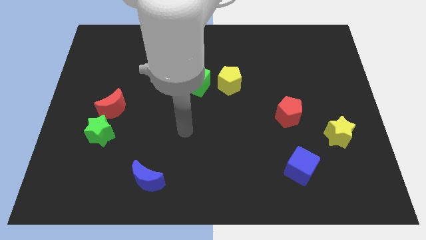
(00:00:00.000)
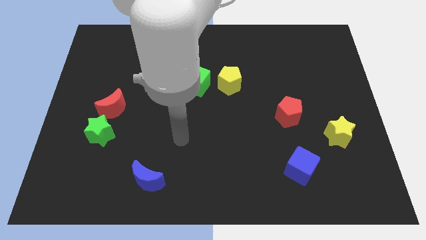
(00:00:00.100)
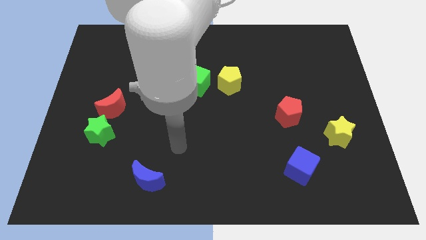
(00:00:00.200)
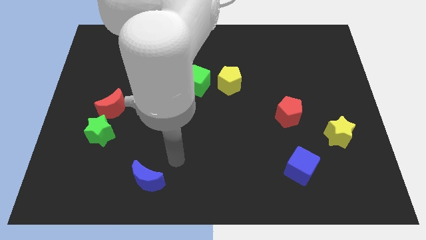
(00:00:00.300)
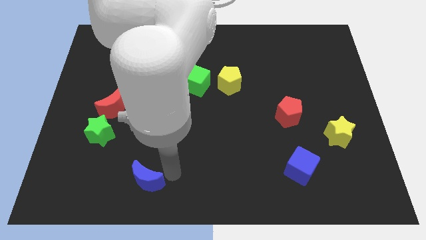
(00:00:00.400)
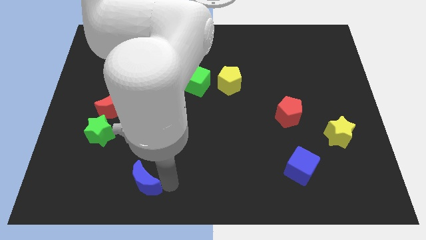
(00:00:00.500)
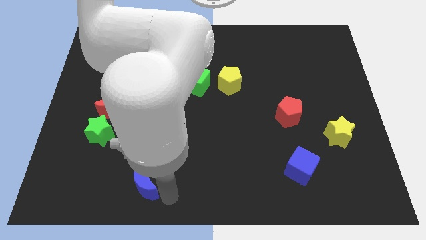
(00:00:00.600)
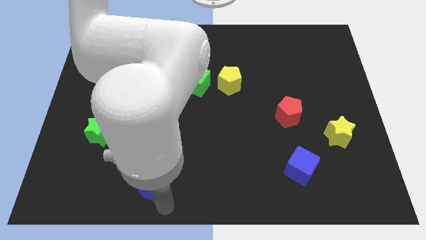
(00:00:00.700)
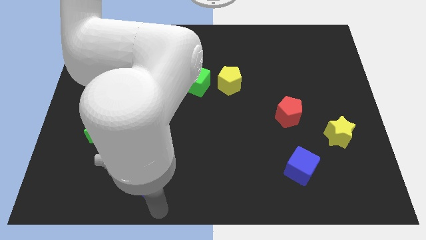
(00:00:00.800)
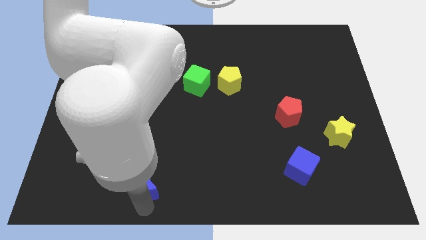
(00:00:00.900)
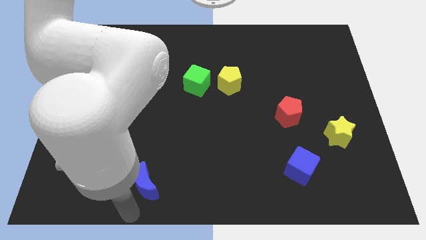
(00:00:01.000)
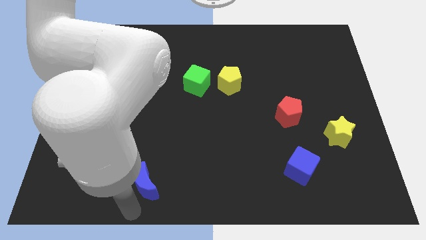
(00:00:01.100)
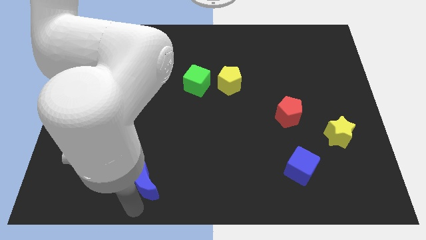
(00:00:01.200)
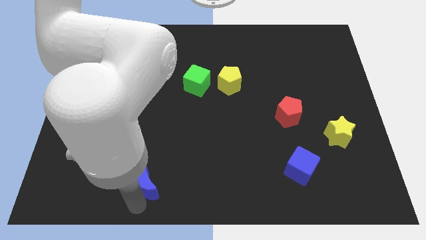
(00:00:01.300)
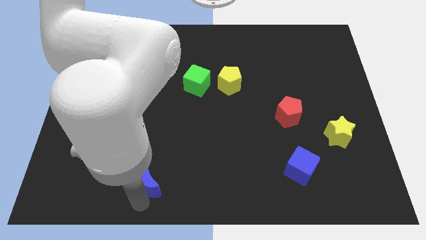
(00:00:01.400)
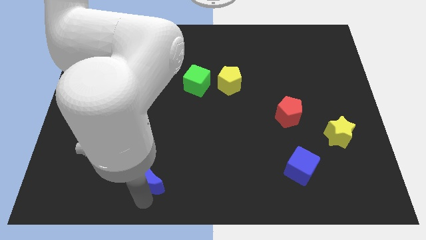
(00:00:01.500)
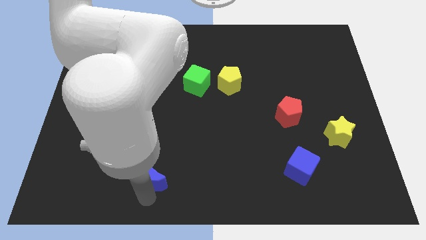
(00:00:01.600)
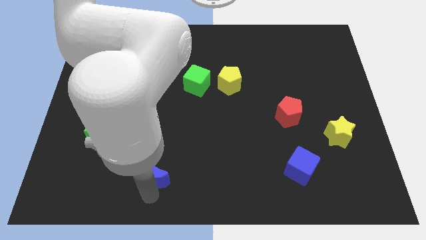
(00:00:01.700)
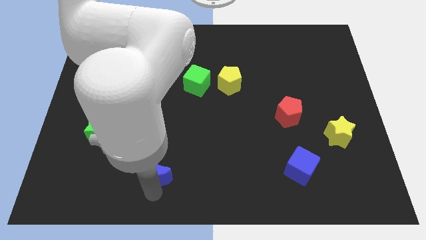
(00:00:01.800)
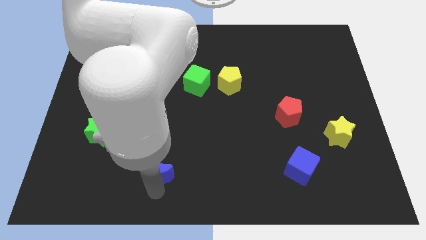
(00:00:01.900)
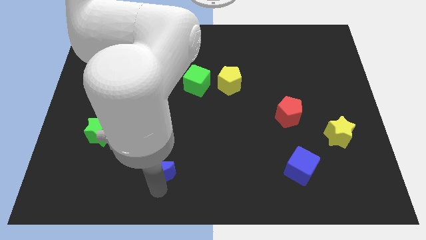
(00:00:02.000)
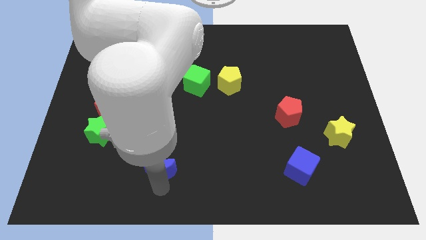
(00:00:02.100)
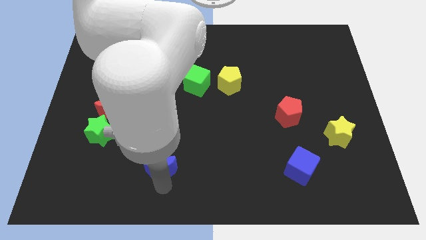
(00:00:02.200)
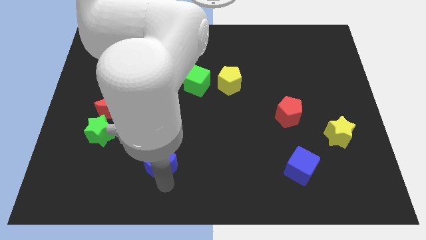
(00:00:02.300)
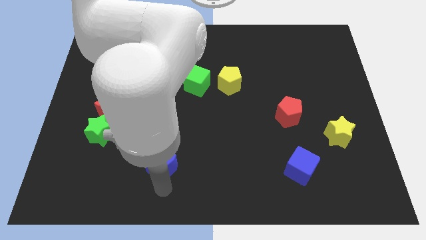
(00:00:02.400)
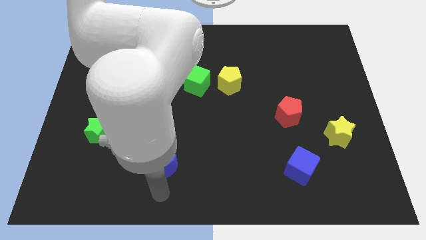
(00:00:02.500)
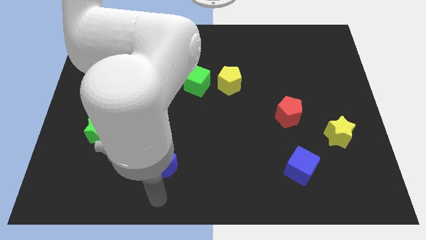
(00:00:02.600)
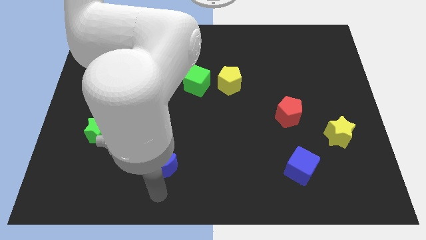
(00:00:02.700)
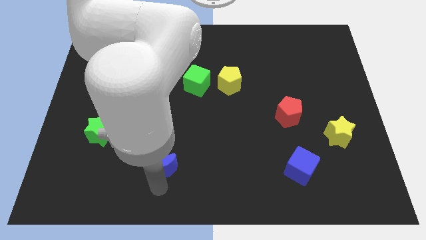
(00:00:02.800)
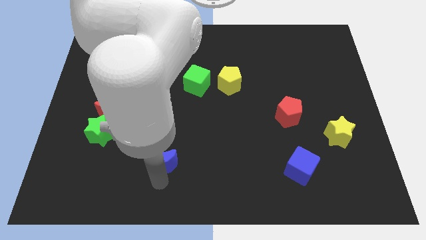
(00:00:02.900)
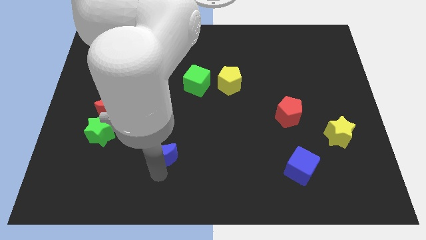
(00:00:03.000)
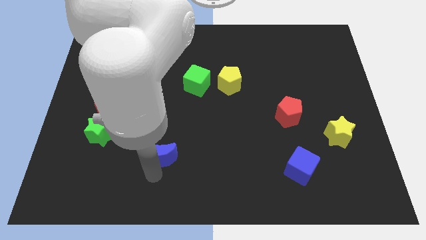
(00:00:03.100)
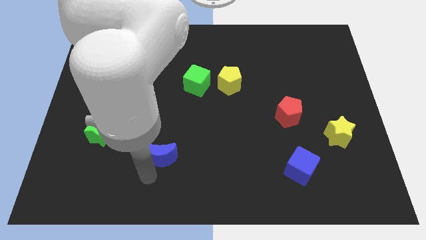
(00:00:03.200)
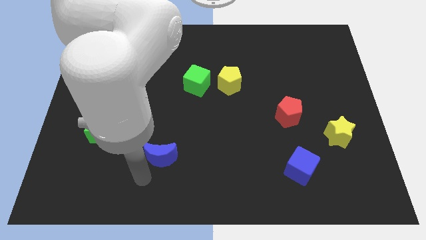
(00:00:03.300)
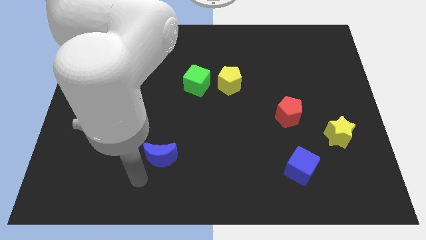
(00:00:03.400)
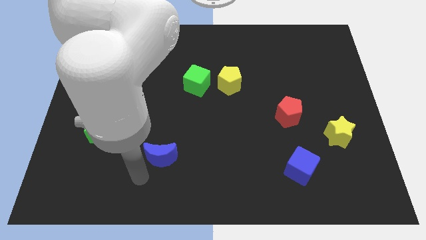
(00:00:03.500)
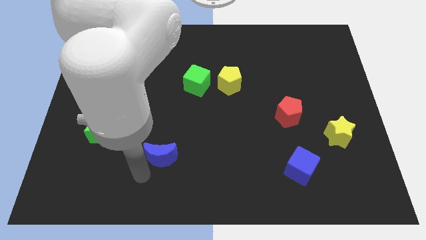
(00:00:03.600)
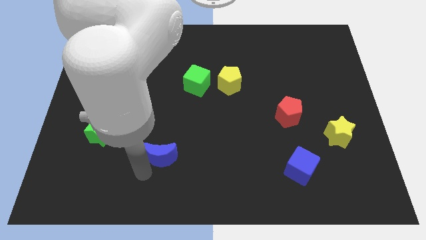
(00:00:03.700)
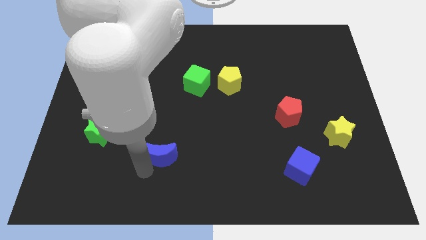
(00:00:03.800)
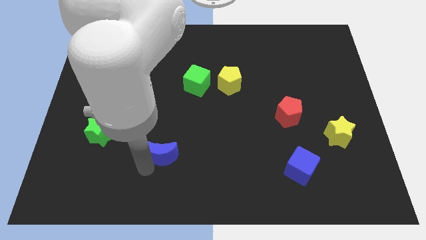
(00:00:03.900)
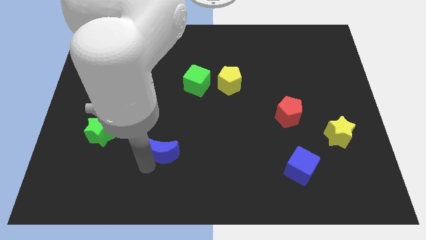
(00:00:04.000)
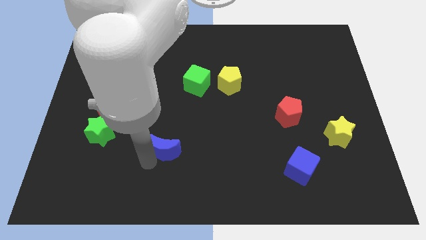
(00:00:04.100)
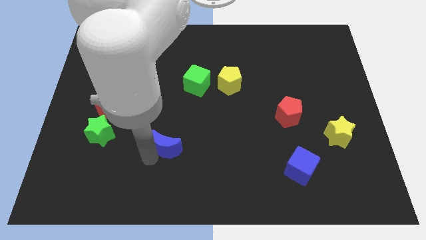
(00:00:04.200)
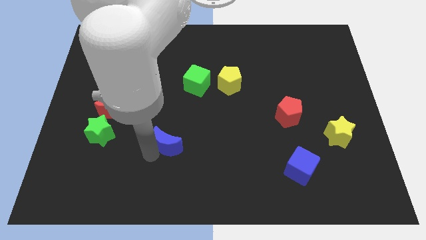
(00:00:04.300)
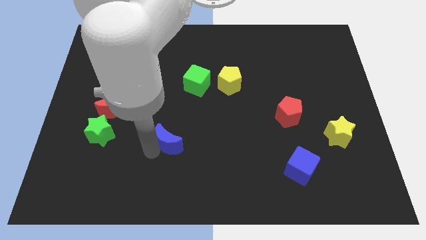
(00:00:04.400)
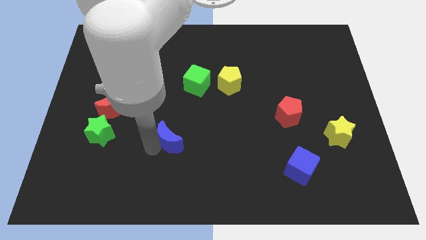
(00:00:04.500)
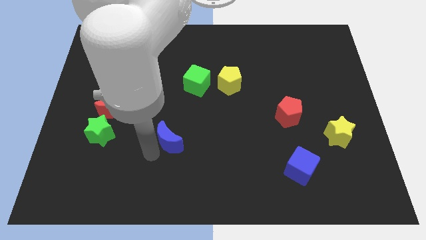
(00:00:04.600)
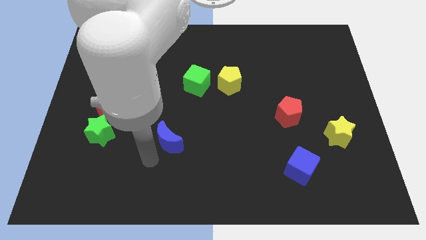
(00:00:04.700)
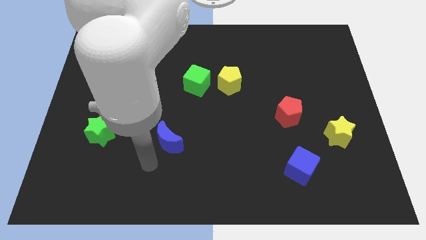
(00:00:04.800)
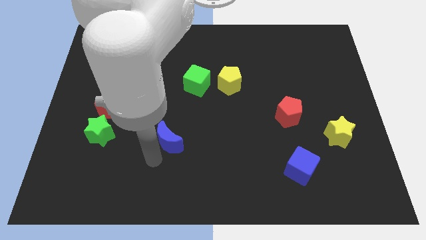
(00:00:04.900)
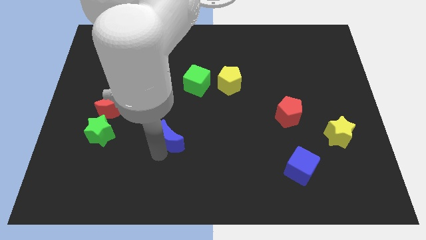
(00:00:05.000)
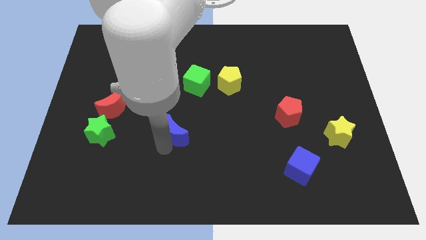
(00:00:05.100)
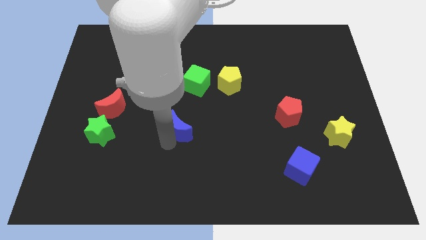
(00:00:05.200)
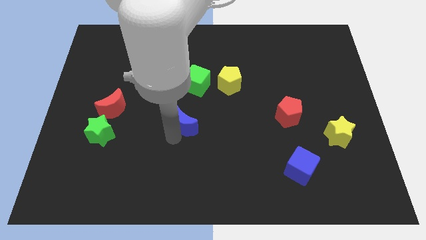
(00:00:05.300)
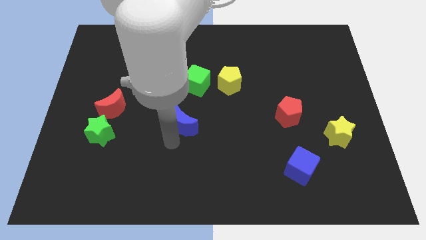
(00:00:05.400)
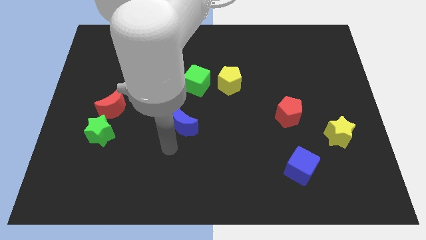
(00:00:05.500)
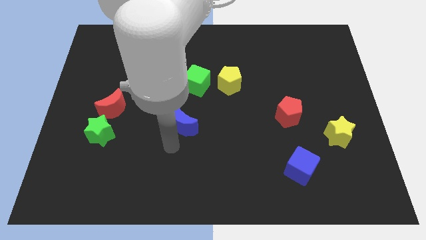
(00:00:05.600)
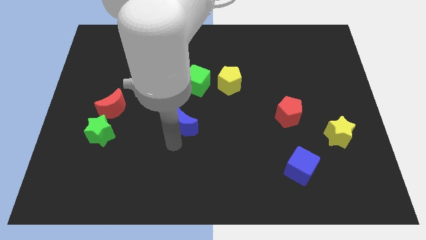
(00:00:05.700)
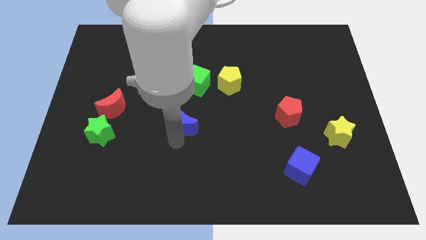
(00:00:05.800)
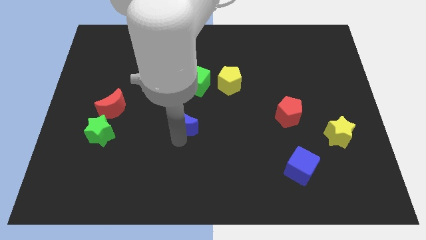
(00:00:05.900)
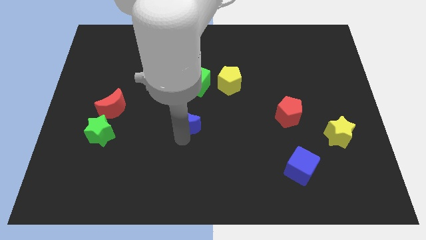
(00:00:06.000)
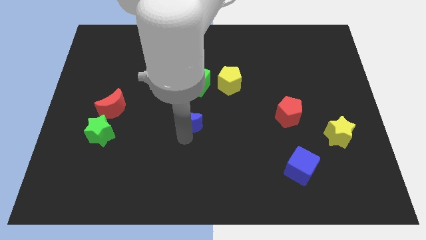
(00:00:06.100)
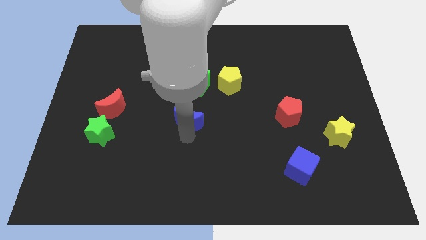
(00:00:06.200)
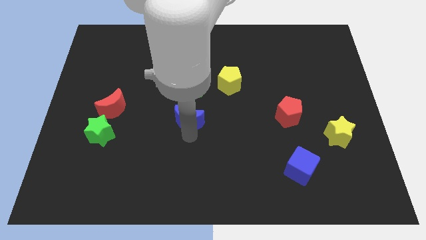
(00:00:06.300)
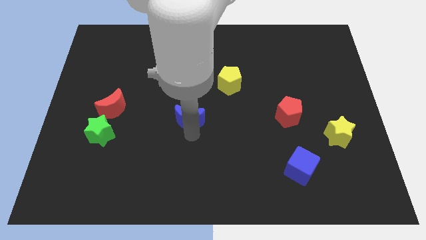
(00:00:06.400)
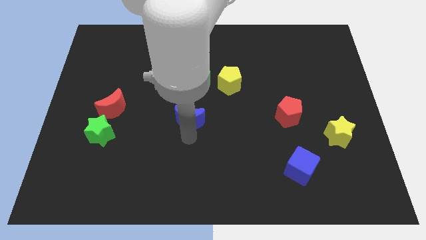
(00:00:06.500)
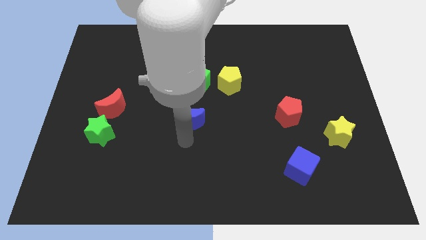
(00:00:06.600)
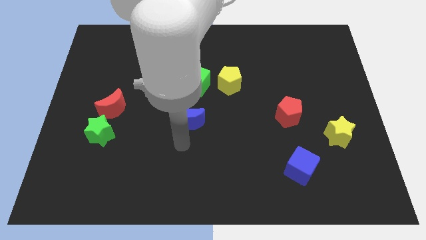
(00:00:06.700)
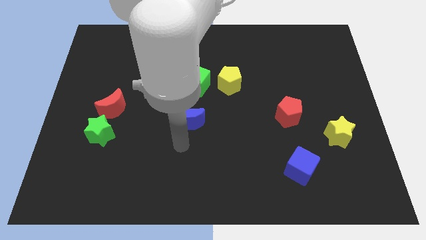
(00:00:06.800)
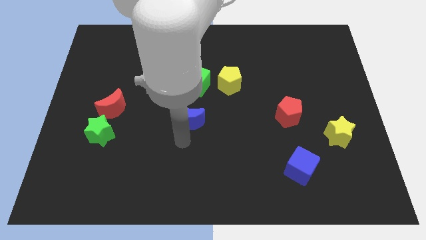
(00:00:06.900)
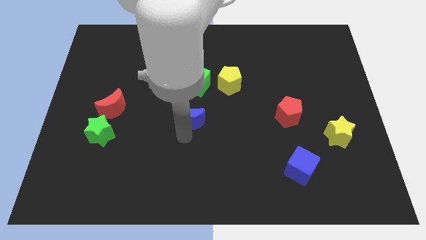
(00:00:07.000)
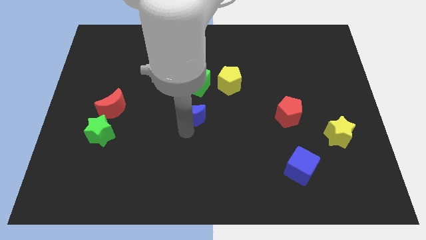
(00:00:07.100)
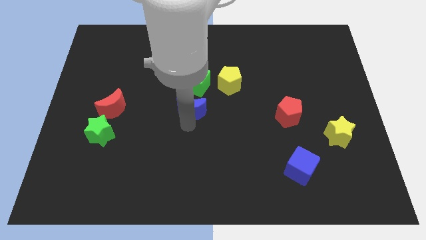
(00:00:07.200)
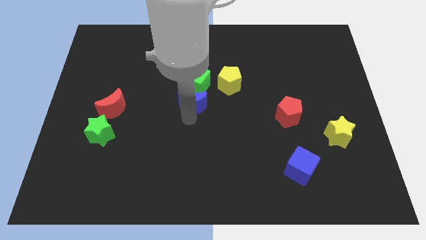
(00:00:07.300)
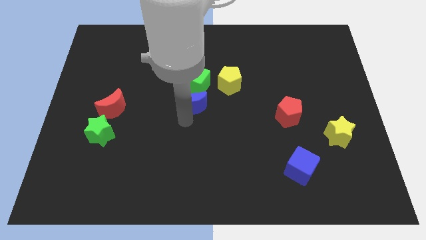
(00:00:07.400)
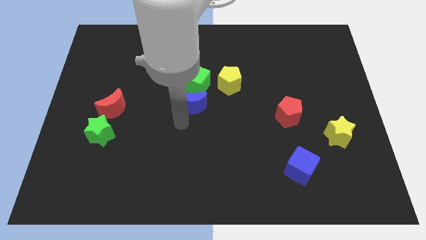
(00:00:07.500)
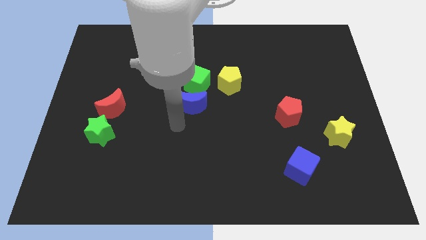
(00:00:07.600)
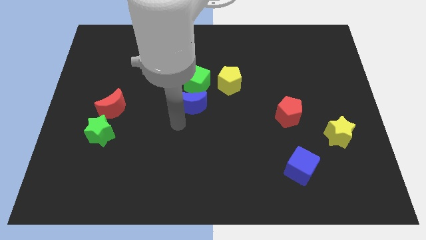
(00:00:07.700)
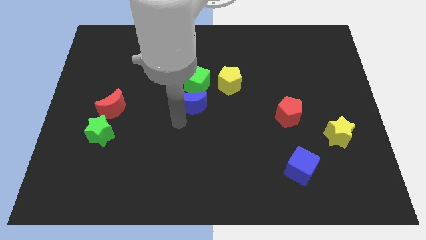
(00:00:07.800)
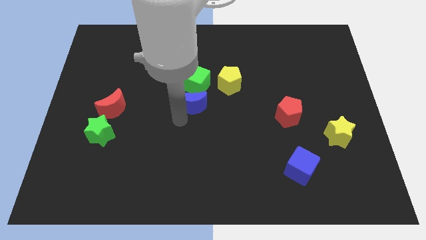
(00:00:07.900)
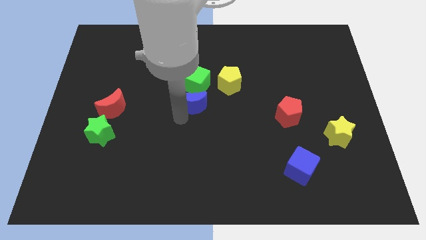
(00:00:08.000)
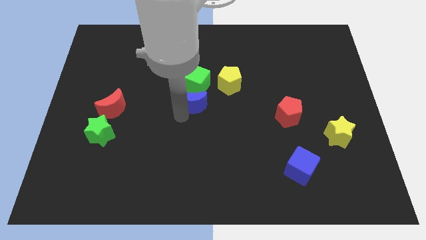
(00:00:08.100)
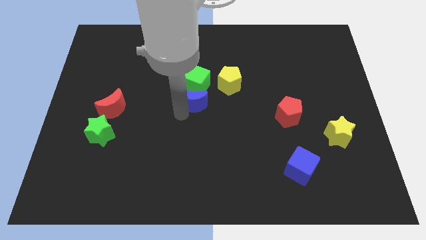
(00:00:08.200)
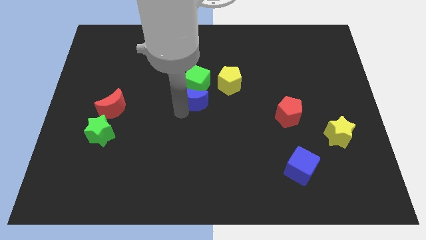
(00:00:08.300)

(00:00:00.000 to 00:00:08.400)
push the blue moon towards the green cube
